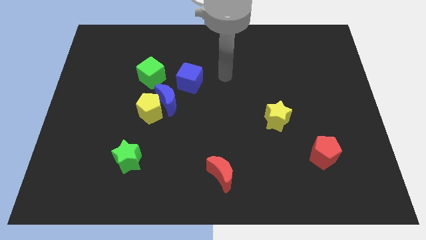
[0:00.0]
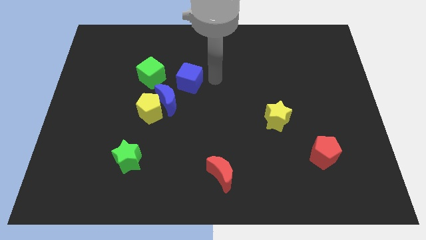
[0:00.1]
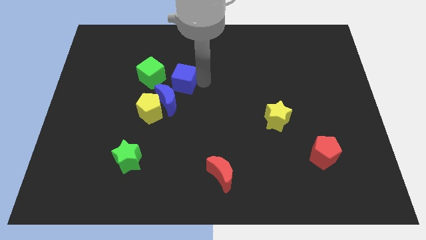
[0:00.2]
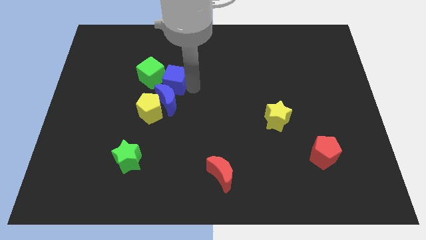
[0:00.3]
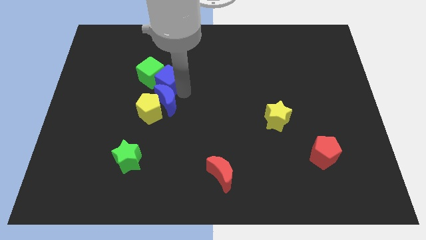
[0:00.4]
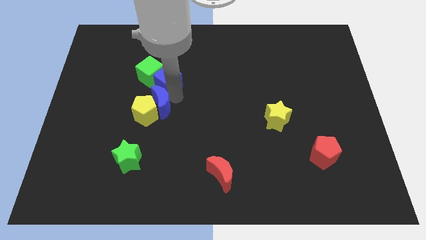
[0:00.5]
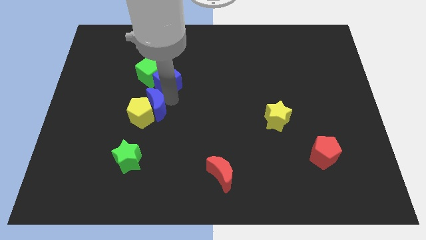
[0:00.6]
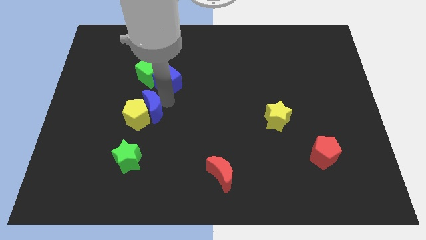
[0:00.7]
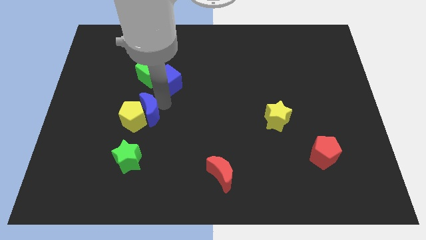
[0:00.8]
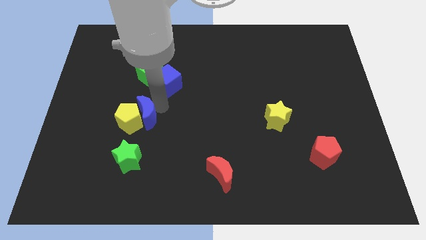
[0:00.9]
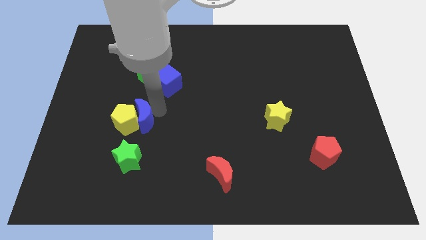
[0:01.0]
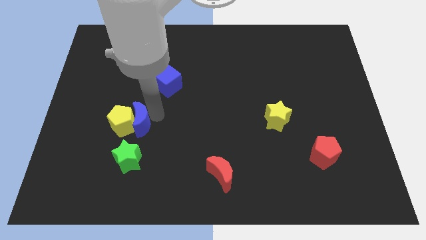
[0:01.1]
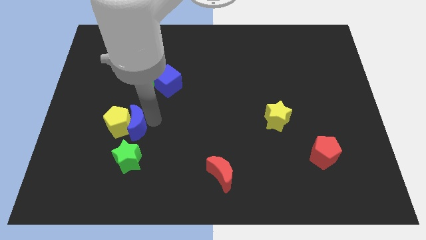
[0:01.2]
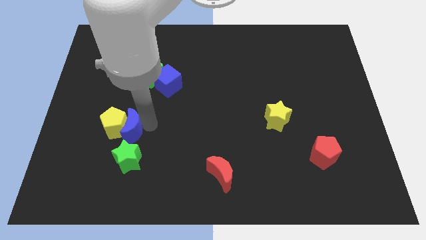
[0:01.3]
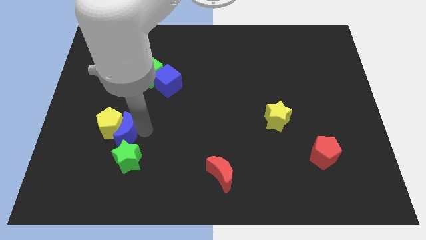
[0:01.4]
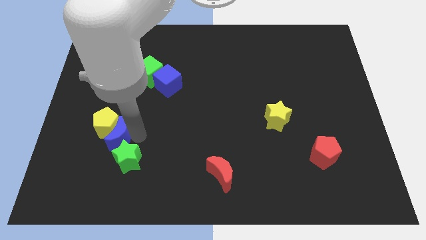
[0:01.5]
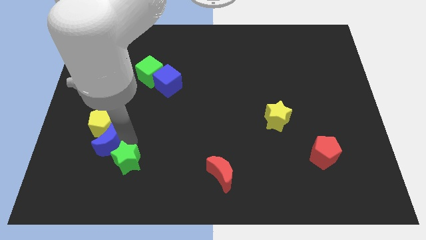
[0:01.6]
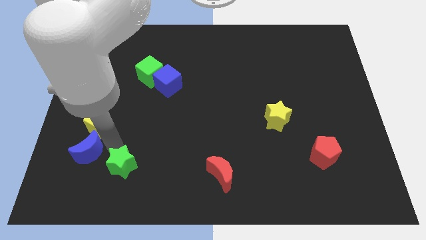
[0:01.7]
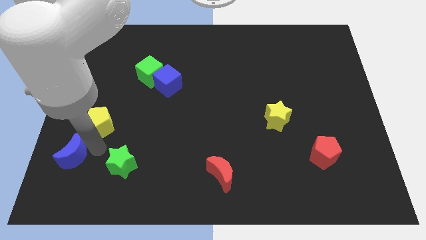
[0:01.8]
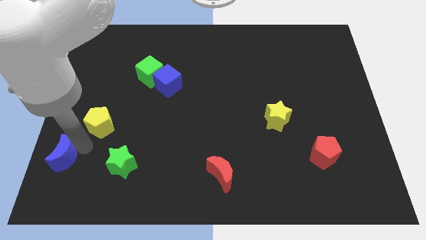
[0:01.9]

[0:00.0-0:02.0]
move the yellow pentagon away from the blue moon

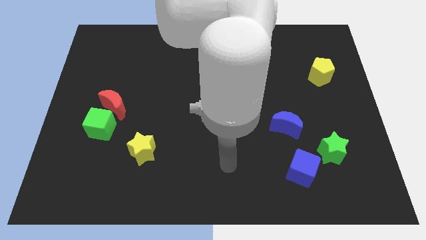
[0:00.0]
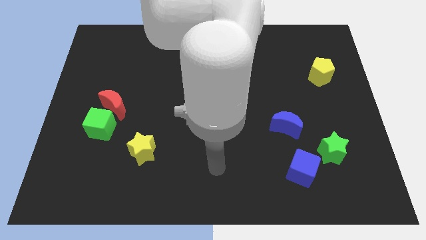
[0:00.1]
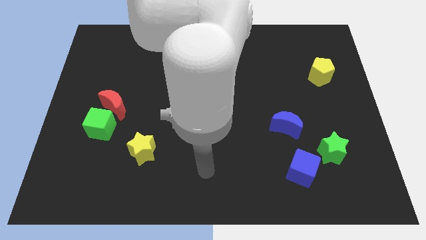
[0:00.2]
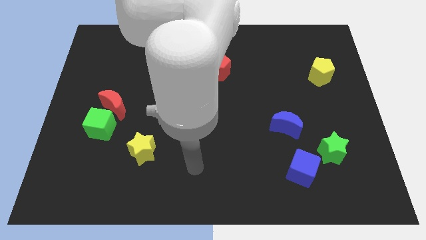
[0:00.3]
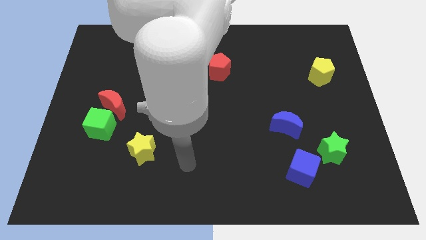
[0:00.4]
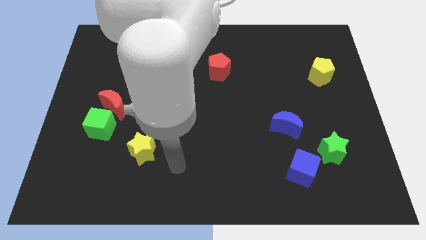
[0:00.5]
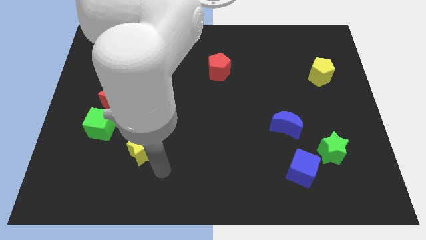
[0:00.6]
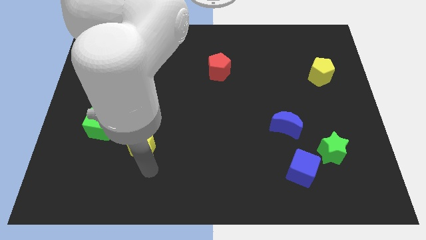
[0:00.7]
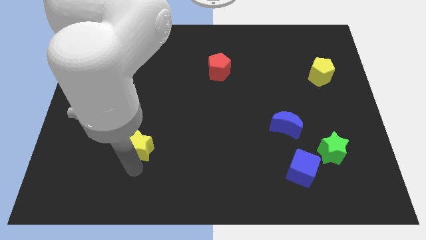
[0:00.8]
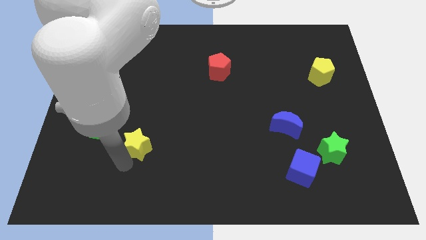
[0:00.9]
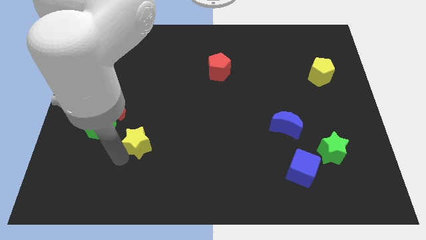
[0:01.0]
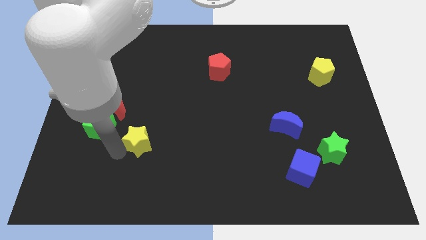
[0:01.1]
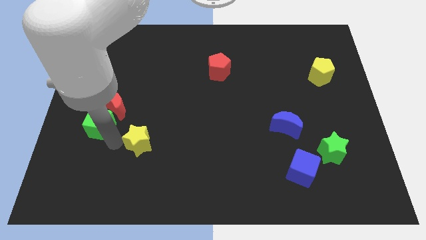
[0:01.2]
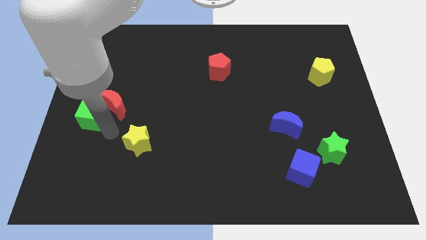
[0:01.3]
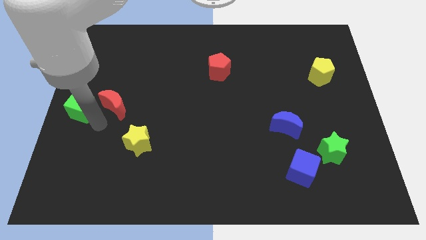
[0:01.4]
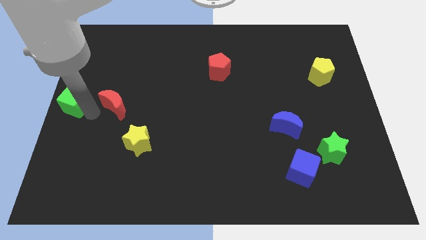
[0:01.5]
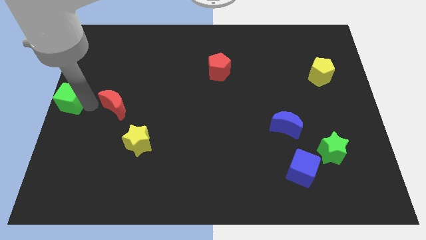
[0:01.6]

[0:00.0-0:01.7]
move the red moon away from the green cube

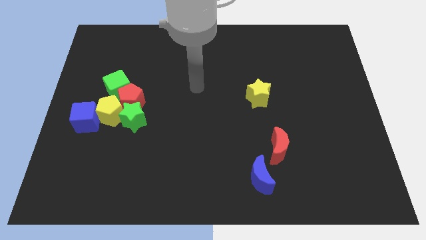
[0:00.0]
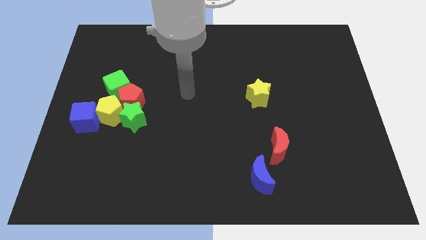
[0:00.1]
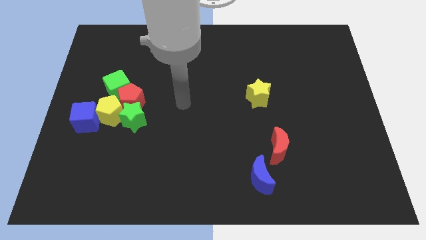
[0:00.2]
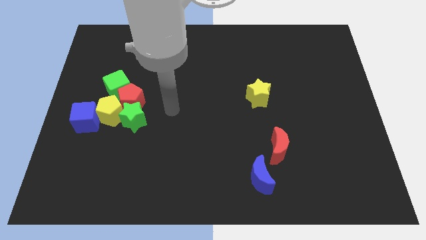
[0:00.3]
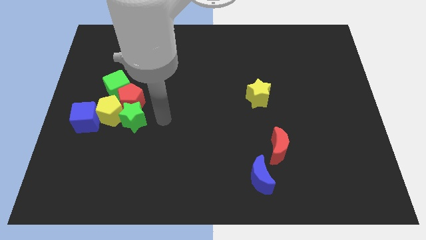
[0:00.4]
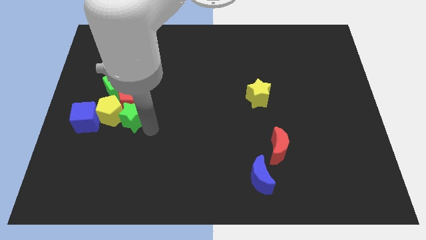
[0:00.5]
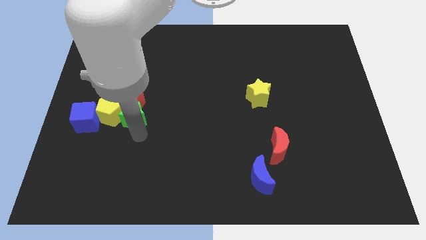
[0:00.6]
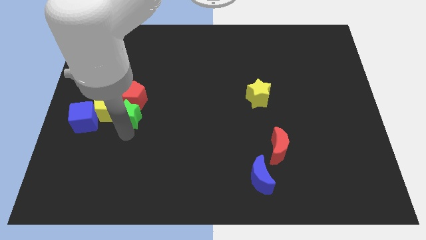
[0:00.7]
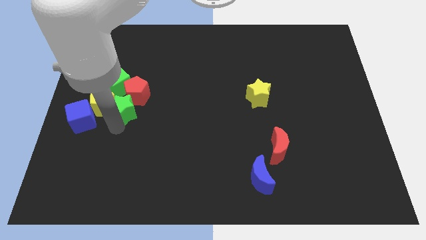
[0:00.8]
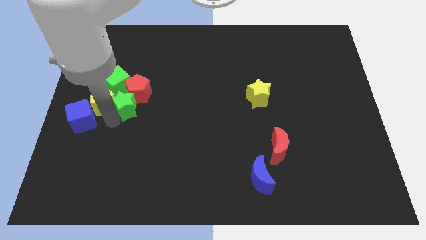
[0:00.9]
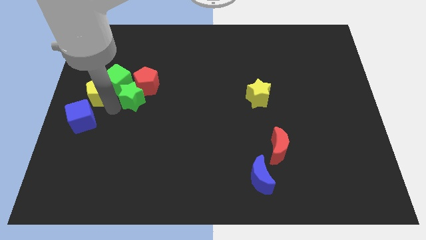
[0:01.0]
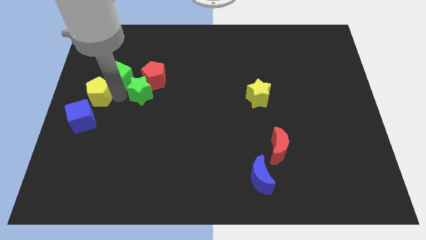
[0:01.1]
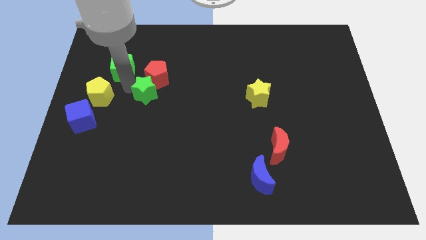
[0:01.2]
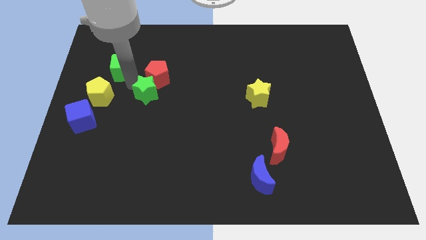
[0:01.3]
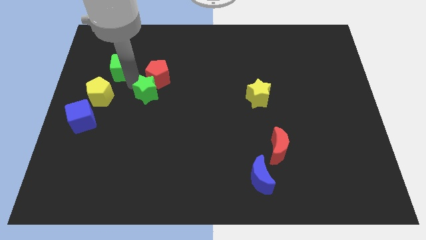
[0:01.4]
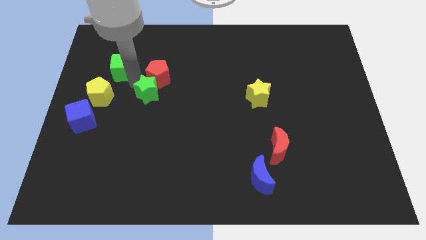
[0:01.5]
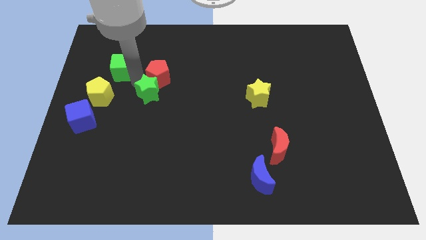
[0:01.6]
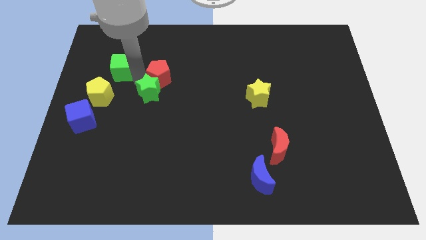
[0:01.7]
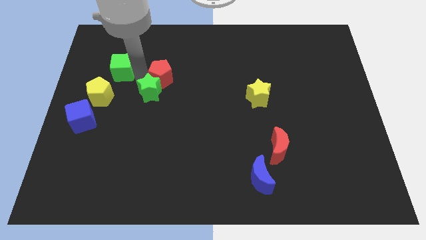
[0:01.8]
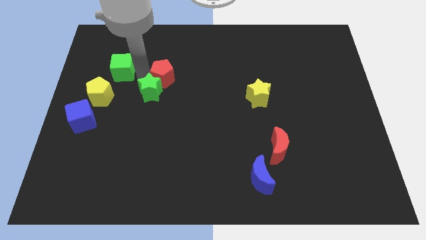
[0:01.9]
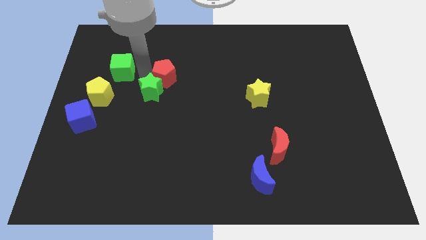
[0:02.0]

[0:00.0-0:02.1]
separate the red pentagon from the green star, yellow pentagon, and green cube

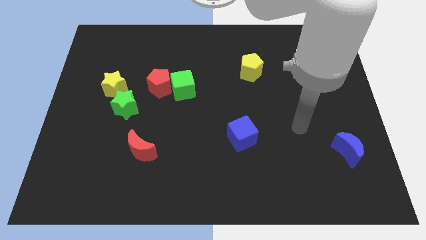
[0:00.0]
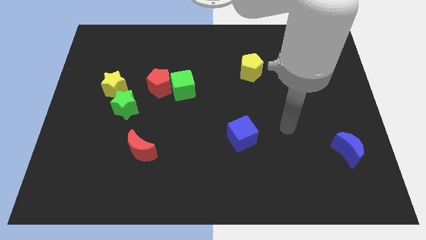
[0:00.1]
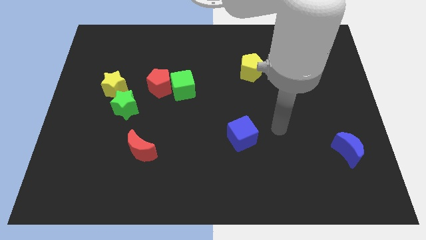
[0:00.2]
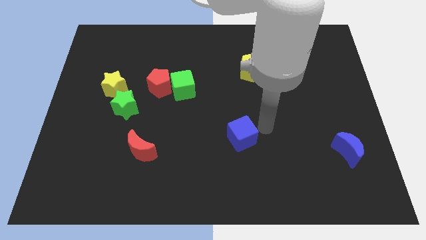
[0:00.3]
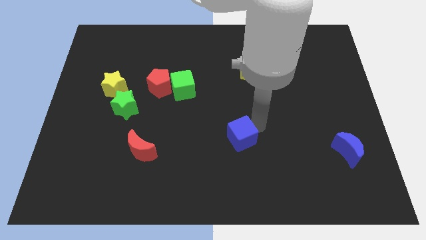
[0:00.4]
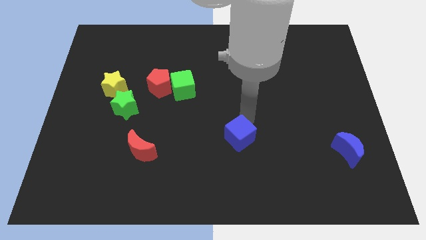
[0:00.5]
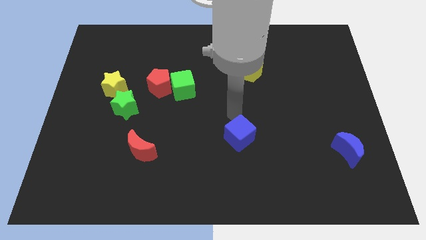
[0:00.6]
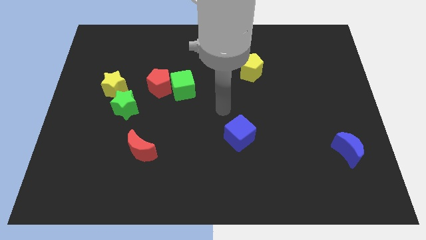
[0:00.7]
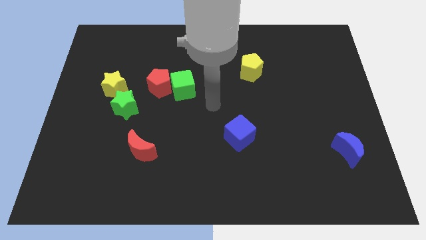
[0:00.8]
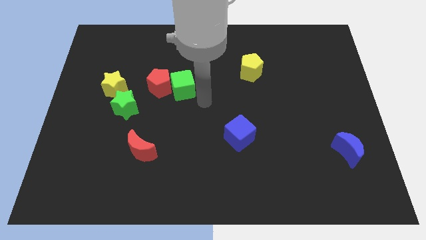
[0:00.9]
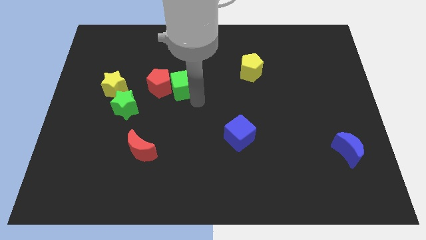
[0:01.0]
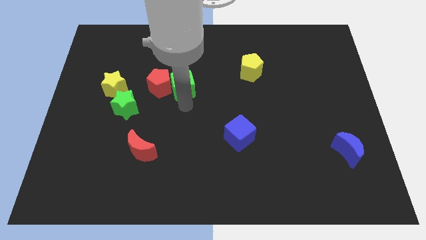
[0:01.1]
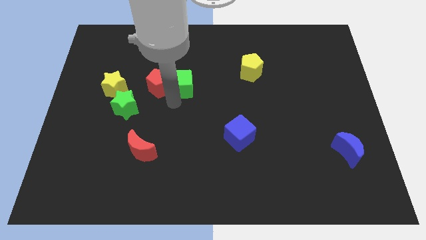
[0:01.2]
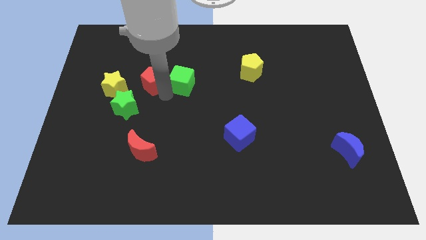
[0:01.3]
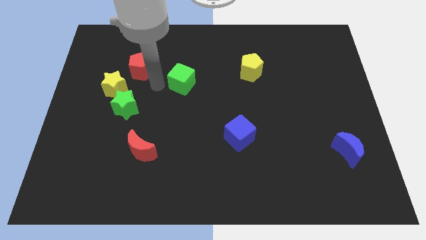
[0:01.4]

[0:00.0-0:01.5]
separate the green cube from the red pentagon

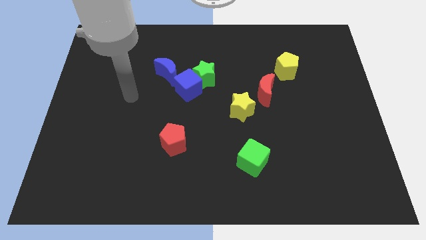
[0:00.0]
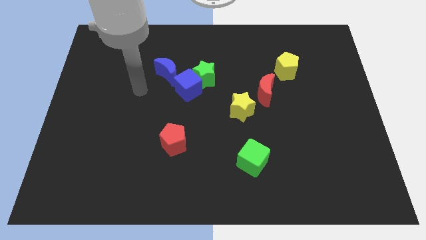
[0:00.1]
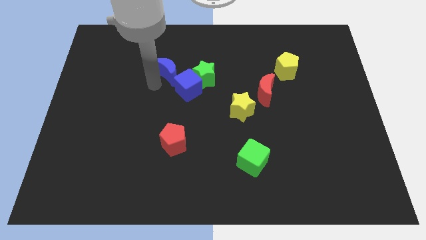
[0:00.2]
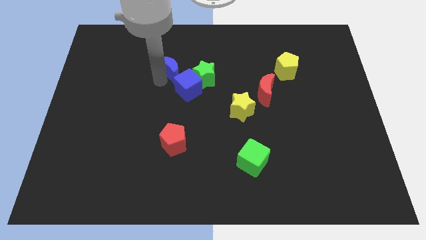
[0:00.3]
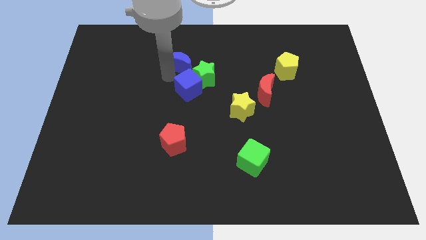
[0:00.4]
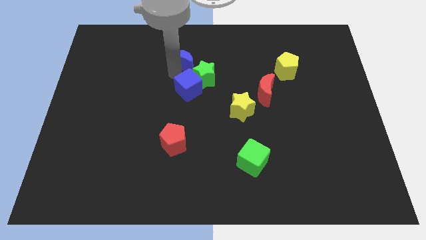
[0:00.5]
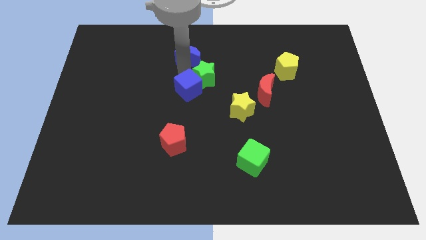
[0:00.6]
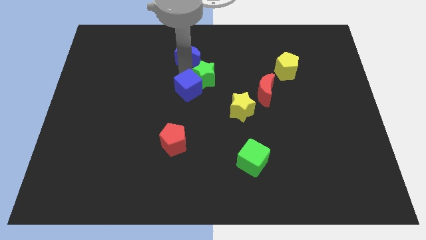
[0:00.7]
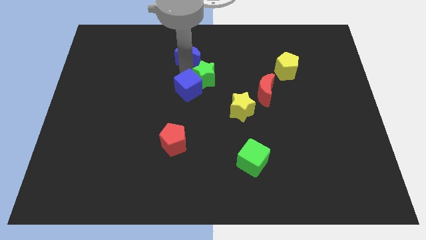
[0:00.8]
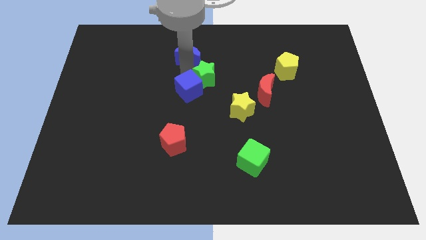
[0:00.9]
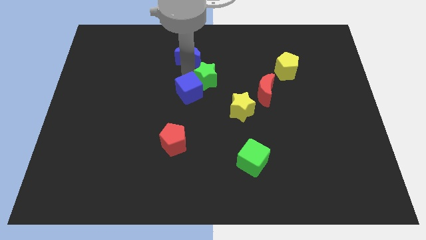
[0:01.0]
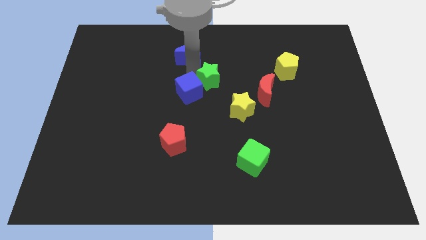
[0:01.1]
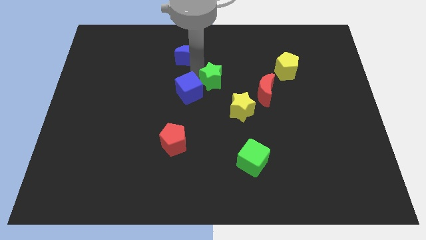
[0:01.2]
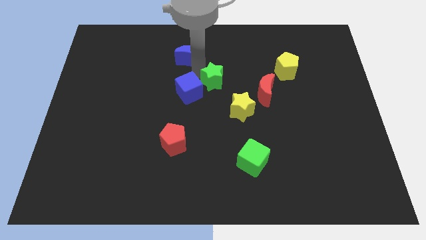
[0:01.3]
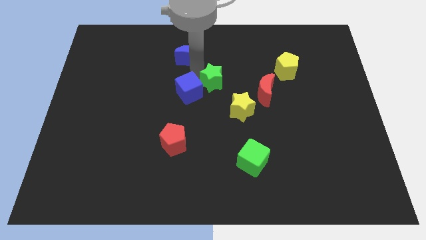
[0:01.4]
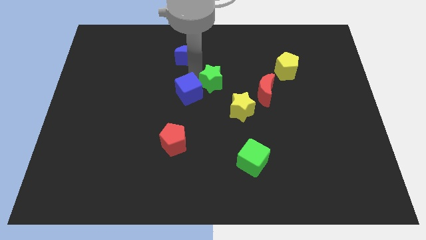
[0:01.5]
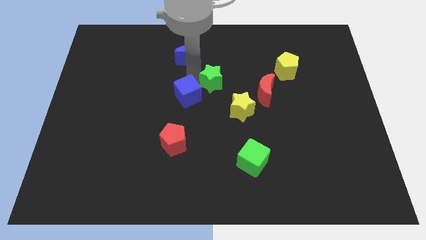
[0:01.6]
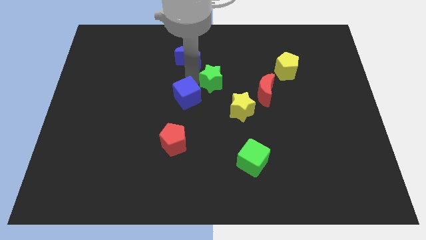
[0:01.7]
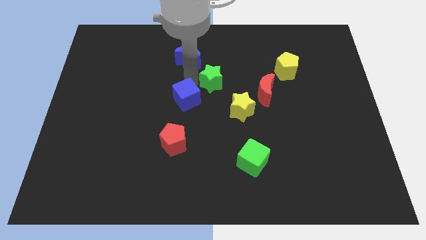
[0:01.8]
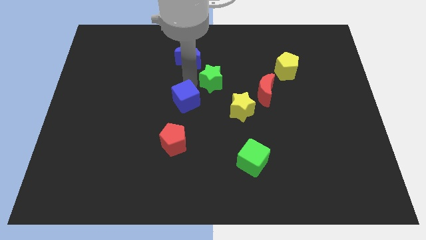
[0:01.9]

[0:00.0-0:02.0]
move the blue cube away from the green star and blue moon

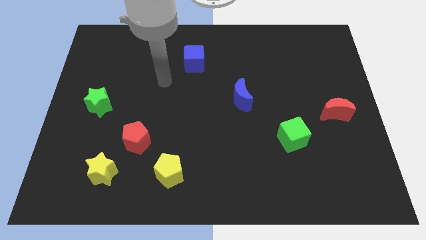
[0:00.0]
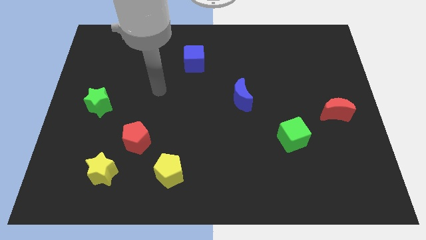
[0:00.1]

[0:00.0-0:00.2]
separate the red pentagon from the yellow star
